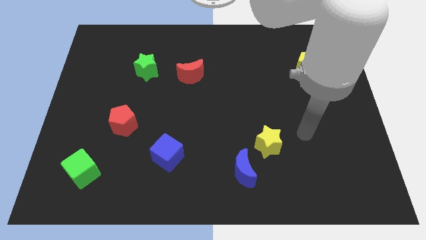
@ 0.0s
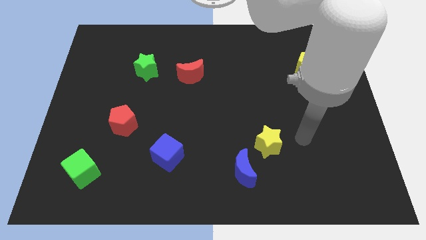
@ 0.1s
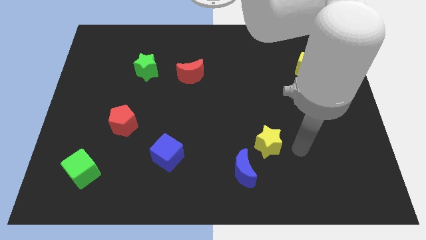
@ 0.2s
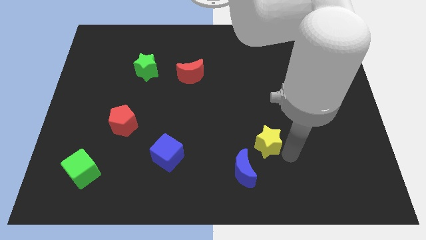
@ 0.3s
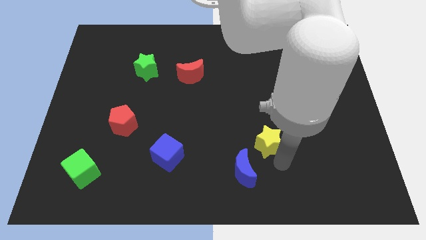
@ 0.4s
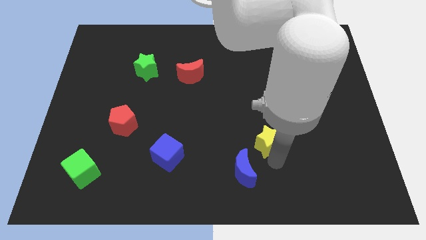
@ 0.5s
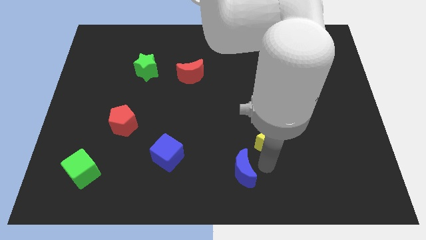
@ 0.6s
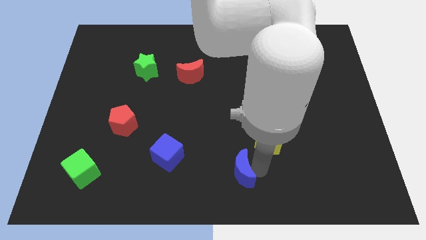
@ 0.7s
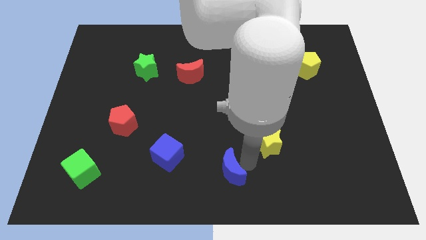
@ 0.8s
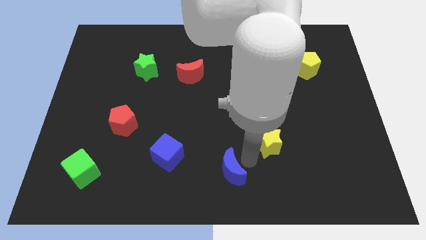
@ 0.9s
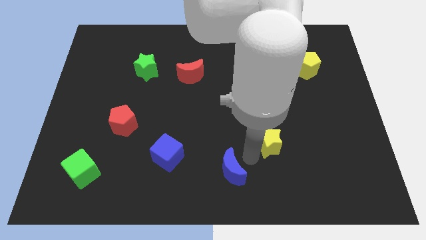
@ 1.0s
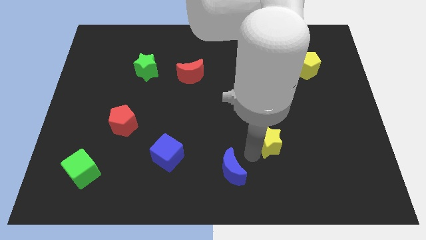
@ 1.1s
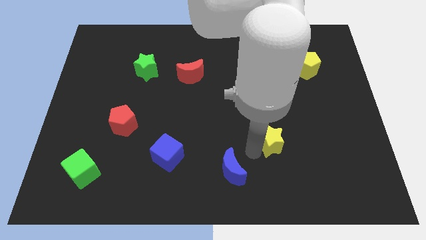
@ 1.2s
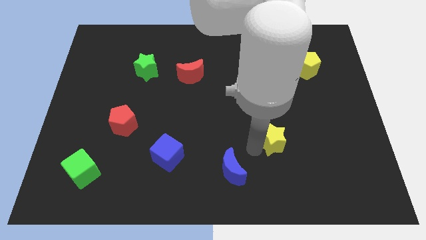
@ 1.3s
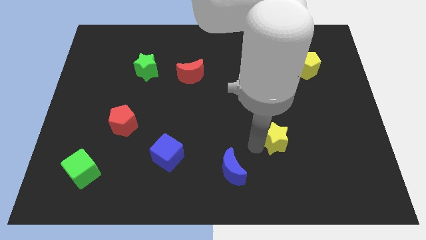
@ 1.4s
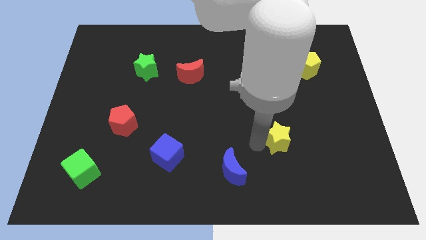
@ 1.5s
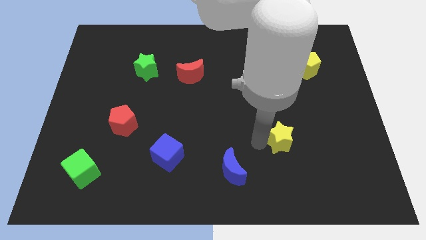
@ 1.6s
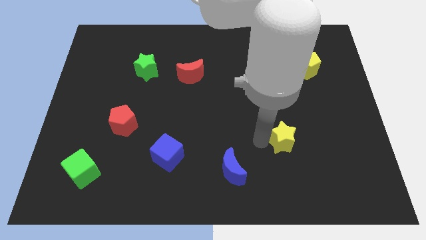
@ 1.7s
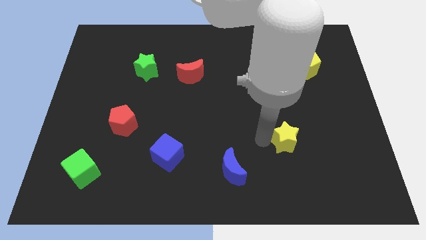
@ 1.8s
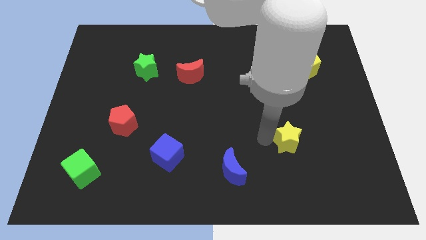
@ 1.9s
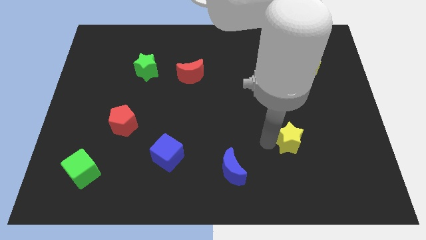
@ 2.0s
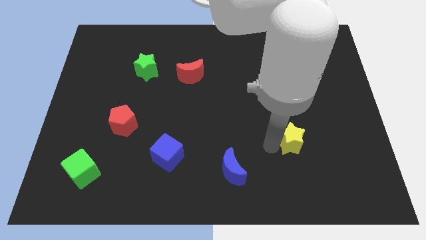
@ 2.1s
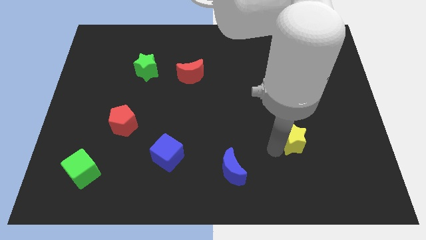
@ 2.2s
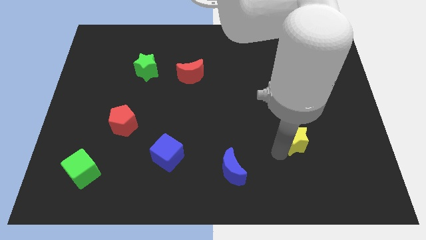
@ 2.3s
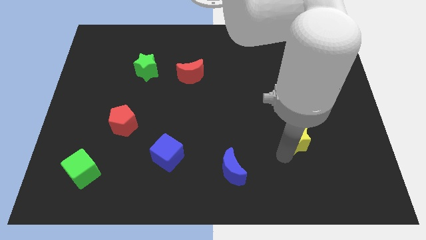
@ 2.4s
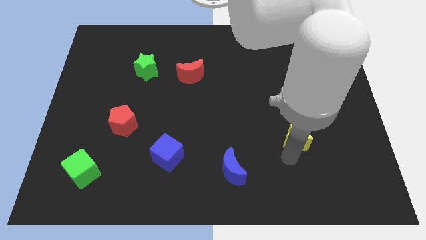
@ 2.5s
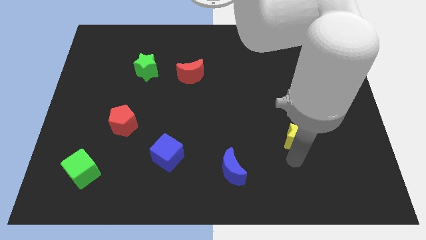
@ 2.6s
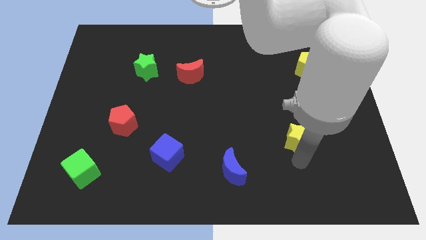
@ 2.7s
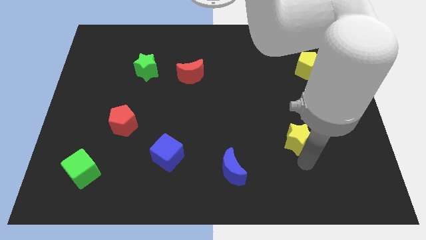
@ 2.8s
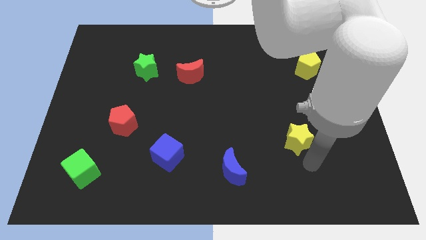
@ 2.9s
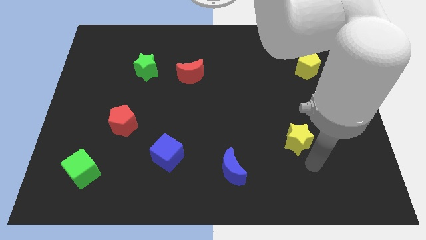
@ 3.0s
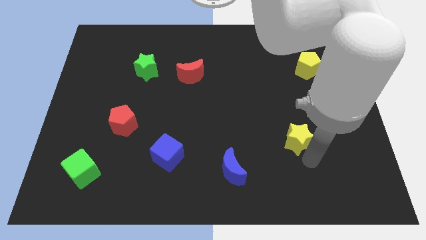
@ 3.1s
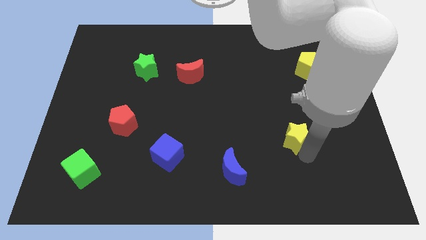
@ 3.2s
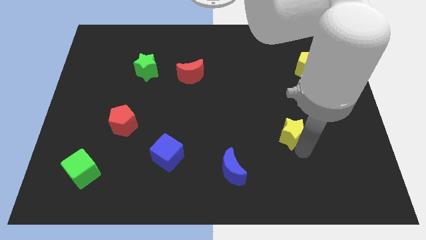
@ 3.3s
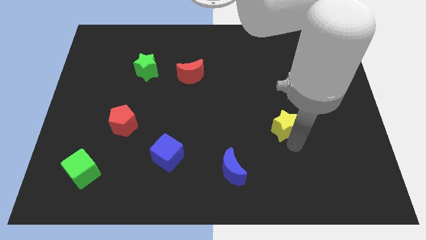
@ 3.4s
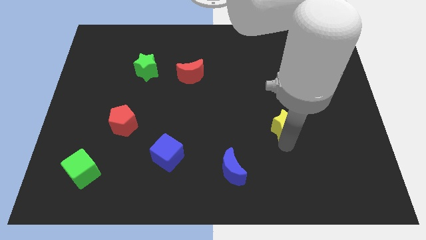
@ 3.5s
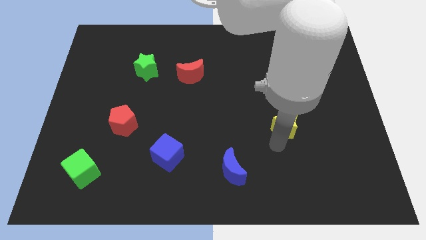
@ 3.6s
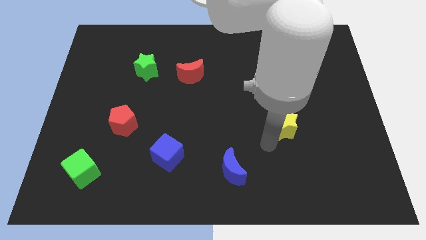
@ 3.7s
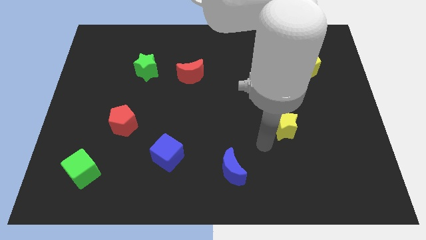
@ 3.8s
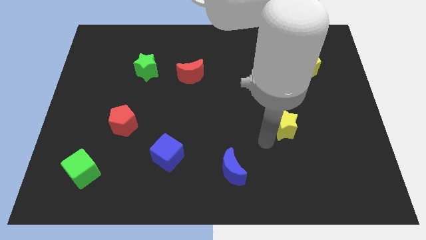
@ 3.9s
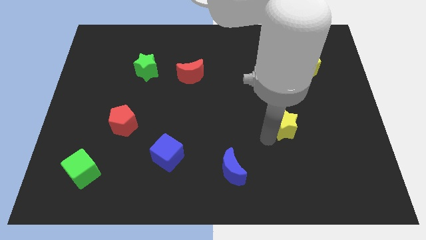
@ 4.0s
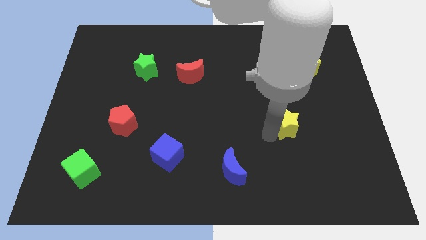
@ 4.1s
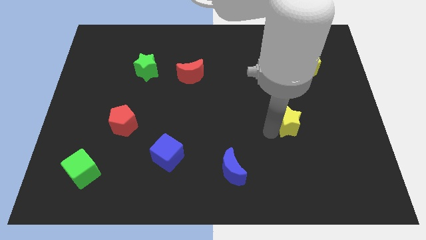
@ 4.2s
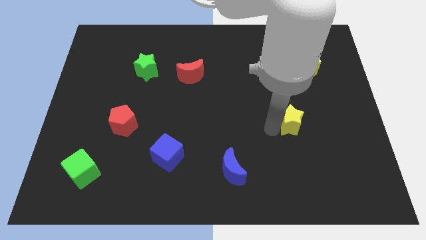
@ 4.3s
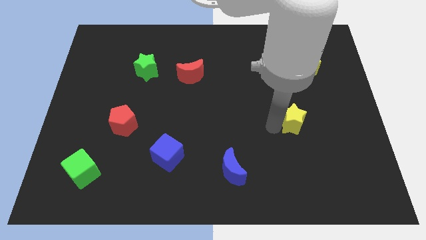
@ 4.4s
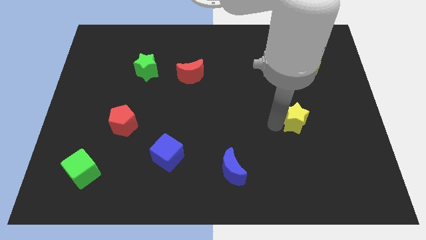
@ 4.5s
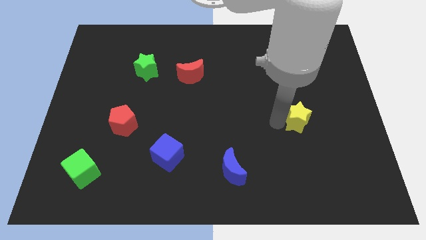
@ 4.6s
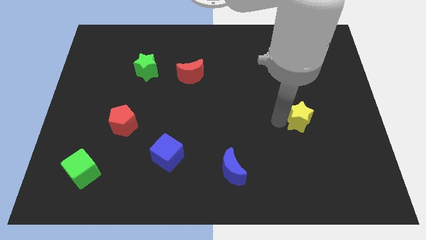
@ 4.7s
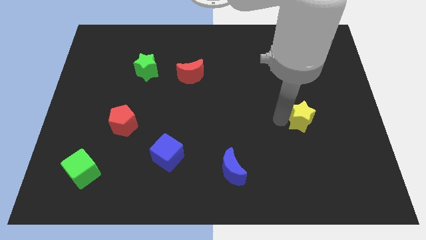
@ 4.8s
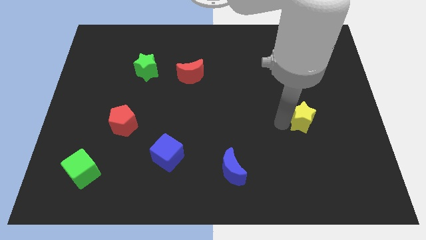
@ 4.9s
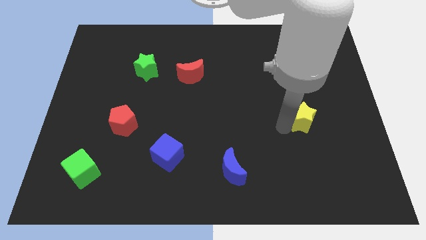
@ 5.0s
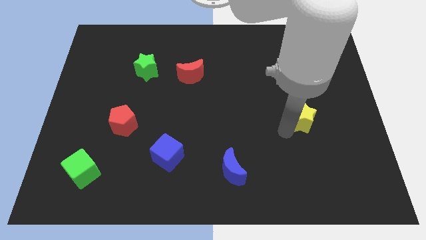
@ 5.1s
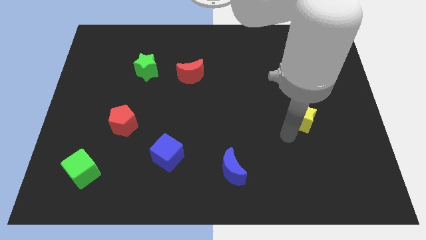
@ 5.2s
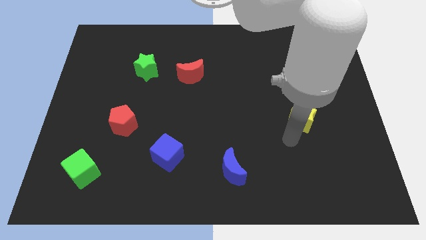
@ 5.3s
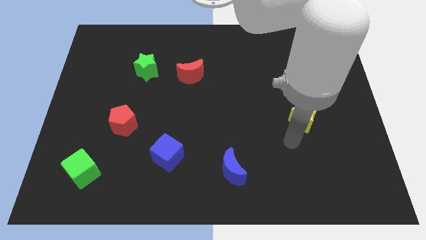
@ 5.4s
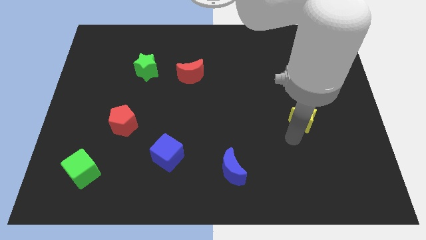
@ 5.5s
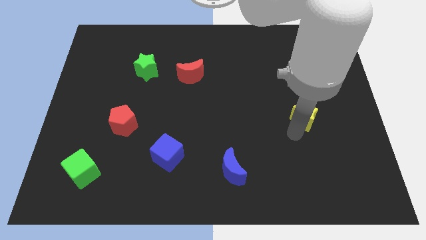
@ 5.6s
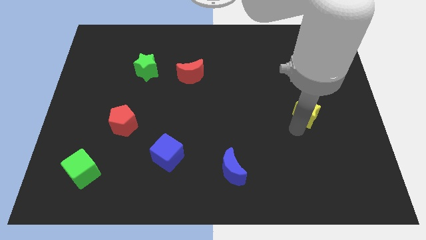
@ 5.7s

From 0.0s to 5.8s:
slide the yellow star to the bottom of the yellow pentagon

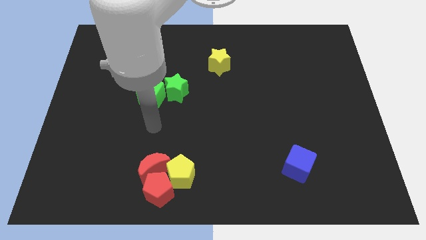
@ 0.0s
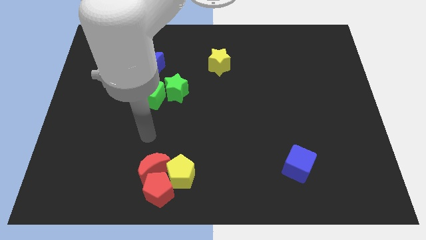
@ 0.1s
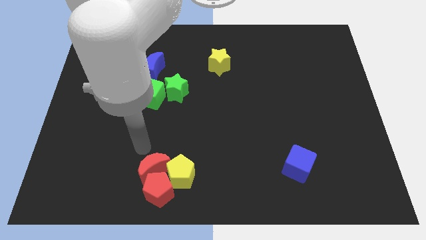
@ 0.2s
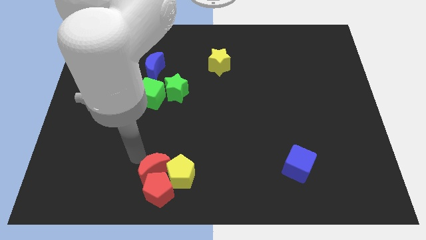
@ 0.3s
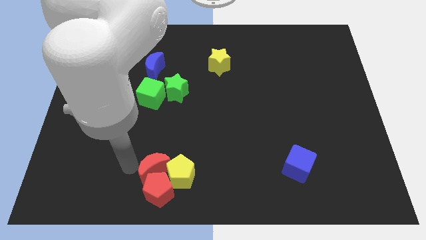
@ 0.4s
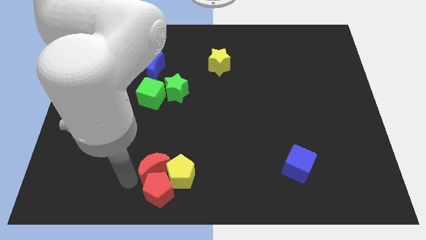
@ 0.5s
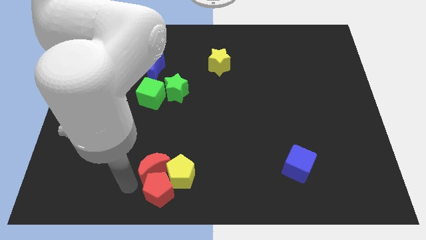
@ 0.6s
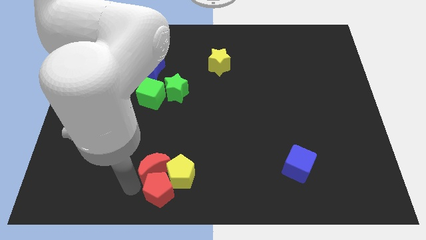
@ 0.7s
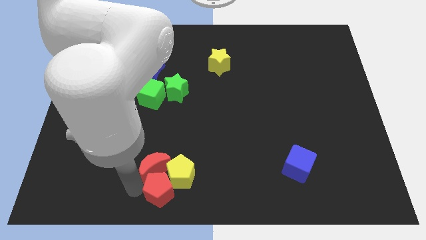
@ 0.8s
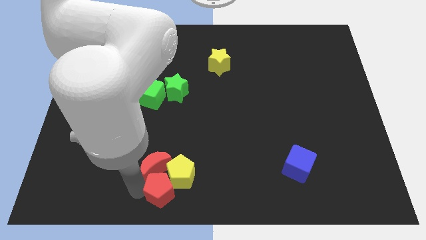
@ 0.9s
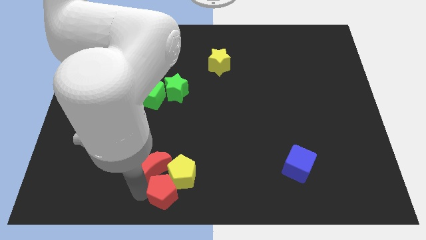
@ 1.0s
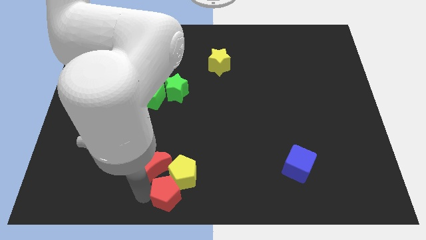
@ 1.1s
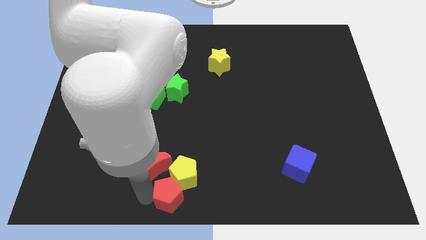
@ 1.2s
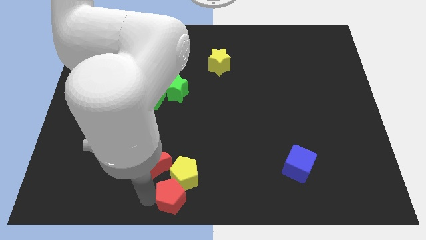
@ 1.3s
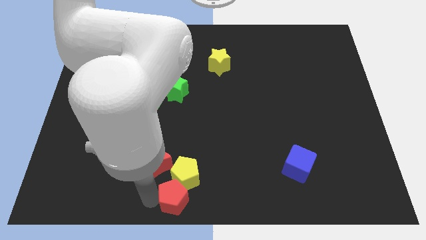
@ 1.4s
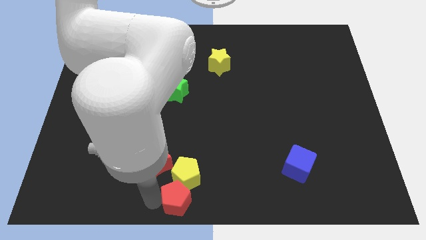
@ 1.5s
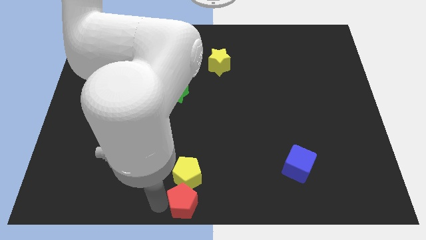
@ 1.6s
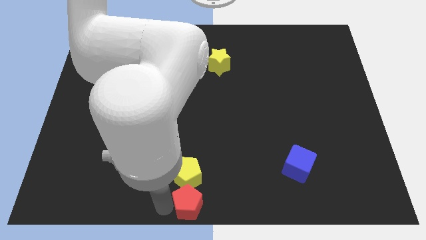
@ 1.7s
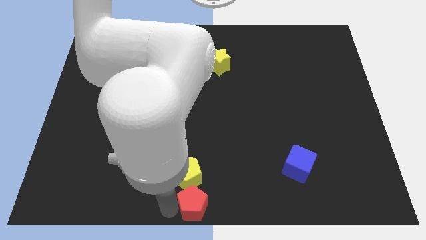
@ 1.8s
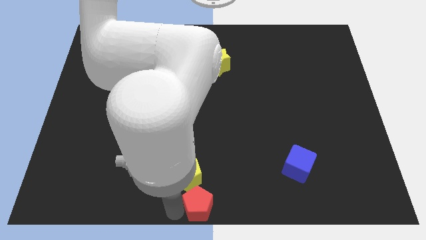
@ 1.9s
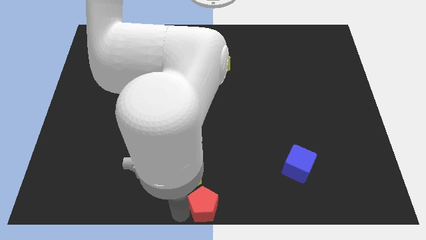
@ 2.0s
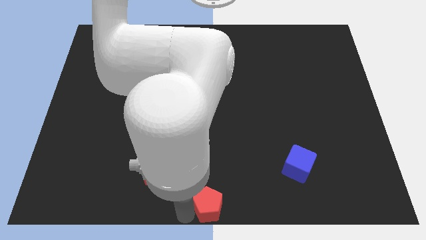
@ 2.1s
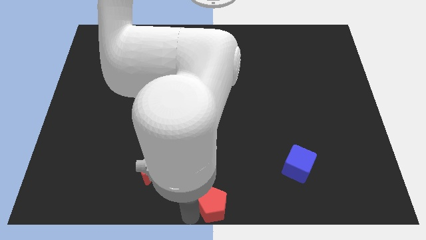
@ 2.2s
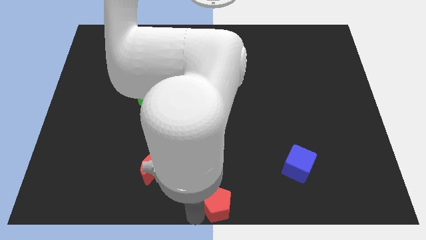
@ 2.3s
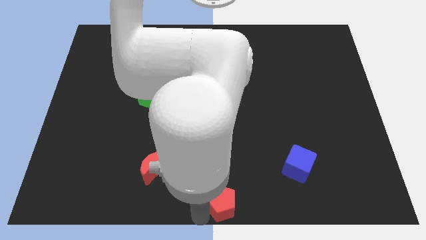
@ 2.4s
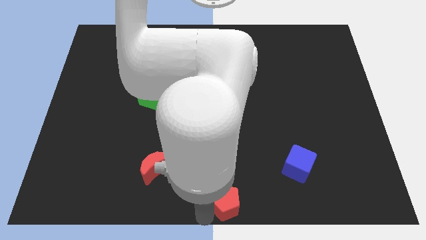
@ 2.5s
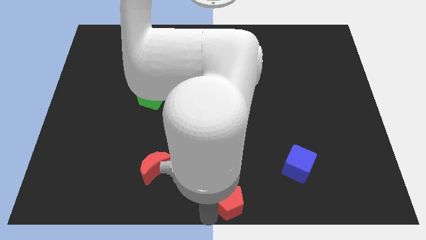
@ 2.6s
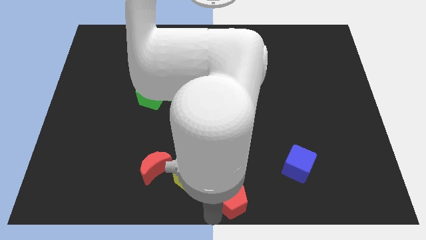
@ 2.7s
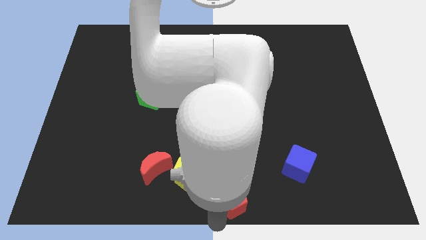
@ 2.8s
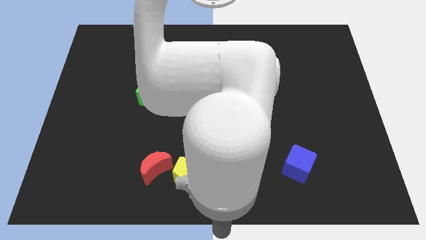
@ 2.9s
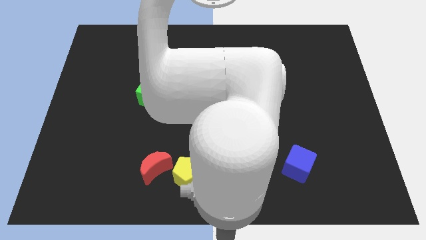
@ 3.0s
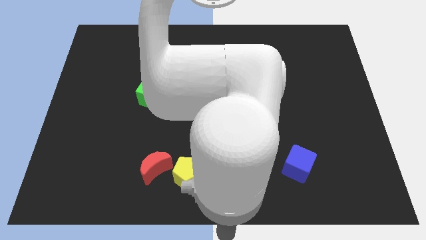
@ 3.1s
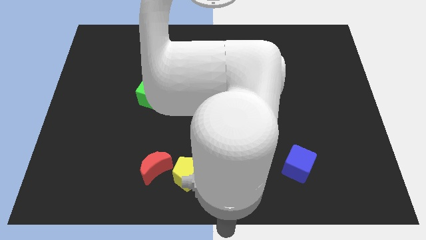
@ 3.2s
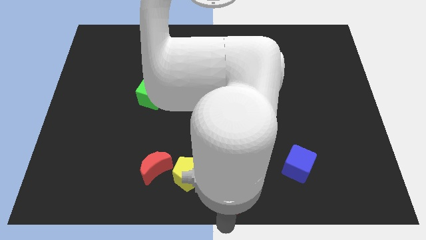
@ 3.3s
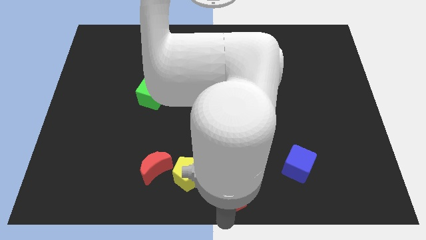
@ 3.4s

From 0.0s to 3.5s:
put the red pentagon to the right side of the yellow pentagon
